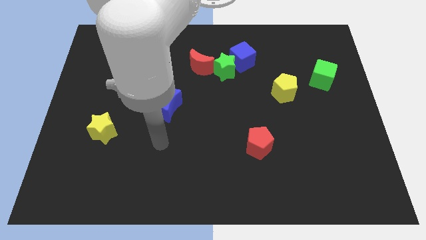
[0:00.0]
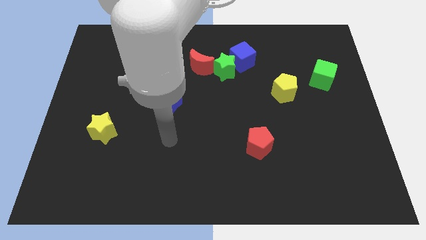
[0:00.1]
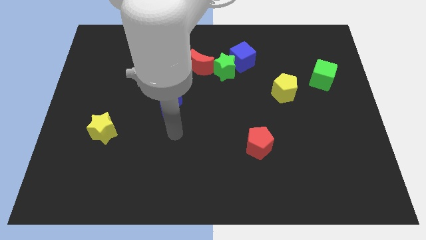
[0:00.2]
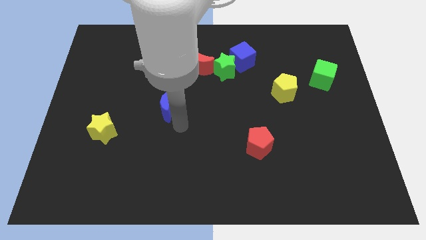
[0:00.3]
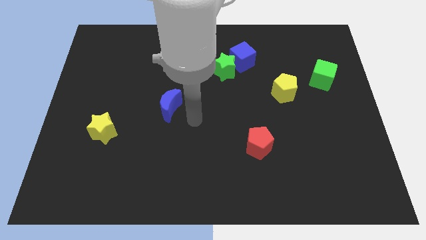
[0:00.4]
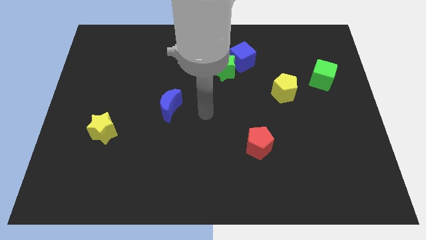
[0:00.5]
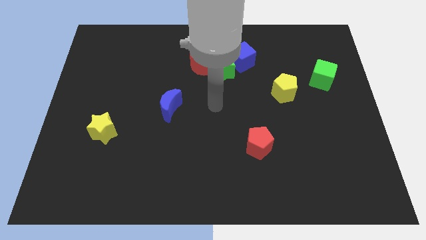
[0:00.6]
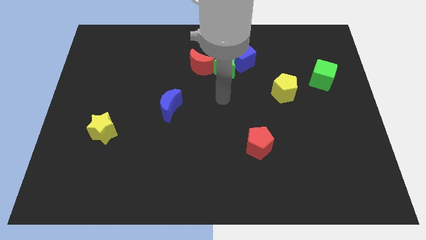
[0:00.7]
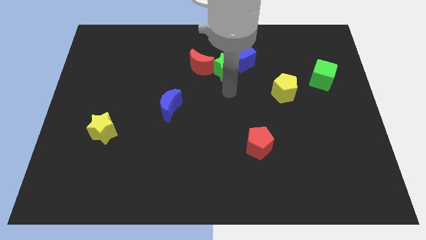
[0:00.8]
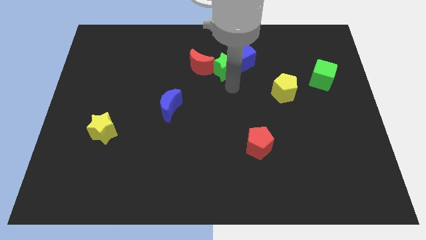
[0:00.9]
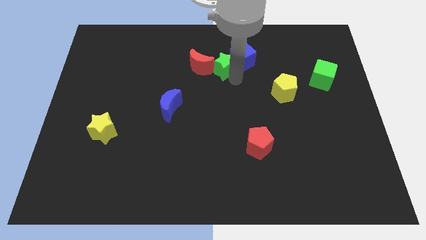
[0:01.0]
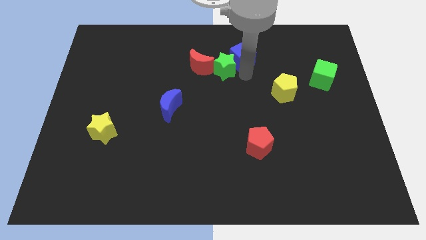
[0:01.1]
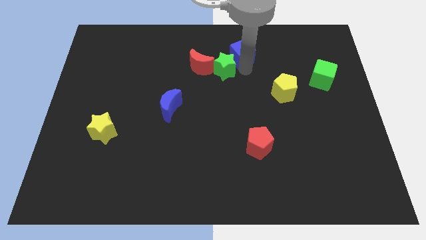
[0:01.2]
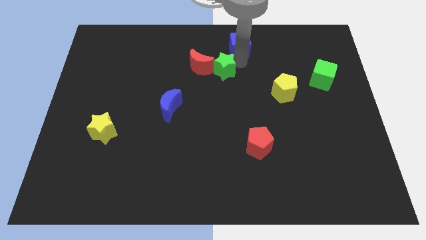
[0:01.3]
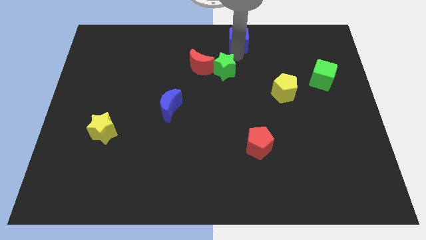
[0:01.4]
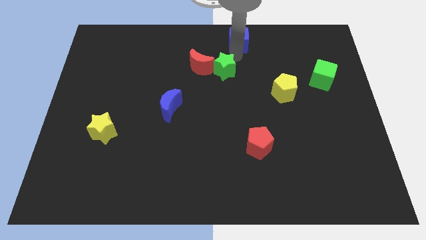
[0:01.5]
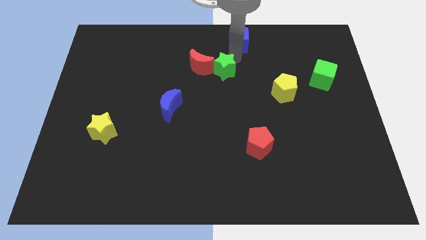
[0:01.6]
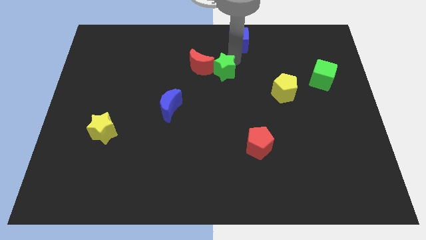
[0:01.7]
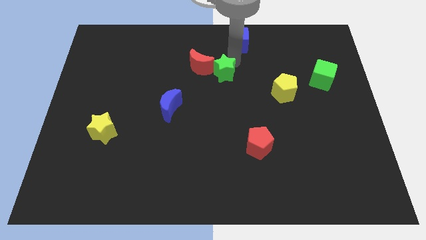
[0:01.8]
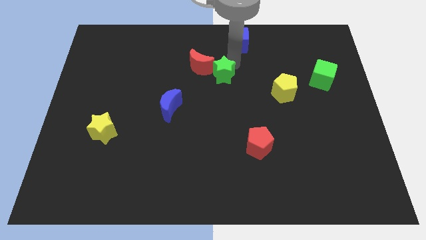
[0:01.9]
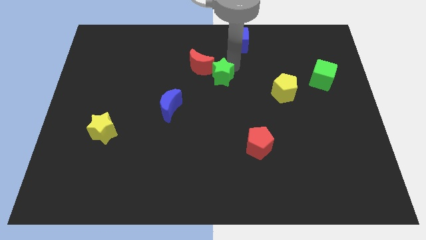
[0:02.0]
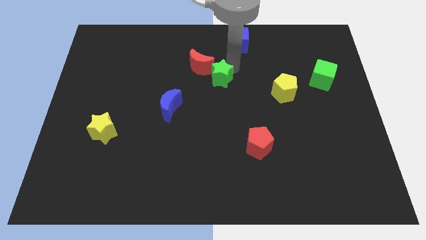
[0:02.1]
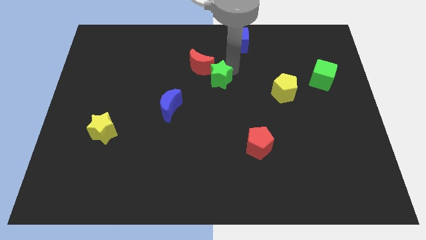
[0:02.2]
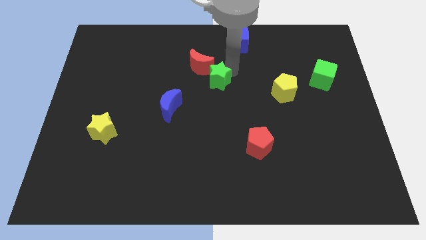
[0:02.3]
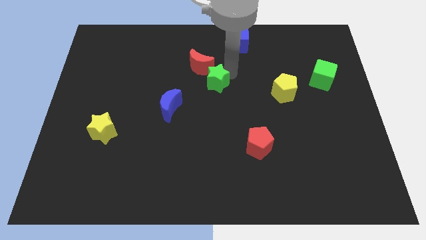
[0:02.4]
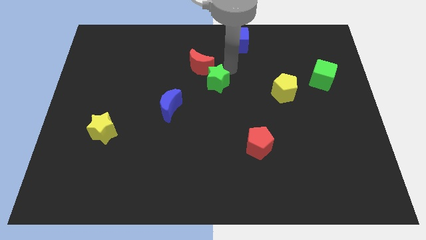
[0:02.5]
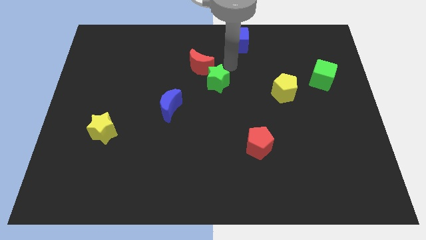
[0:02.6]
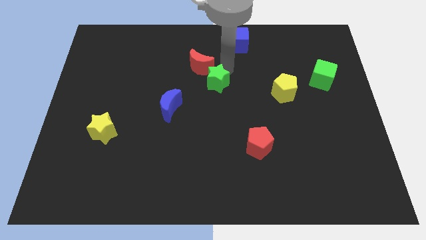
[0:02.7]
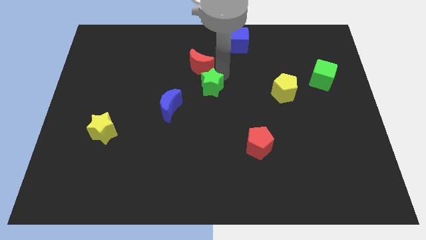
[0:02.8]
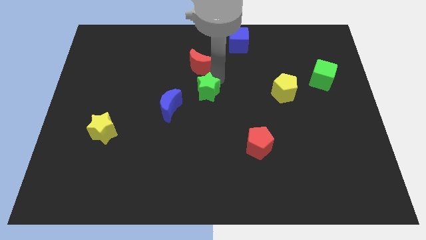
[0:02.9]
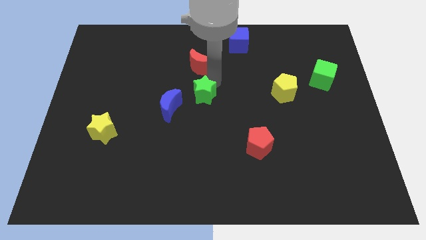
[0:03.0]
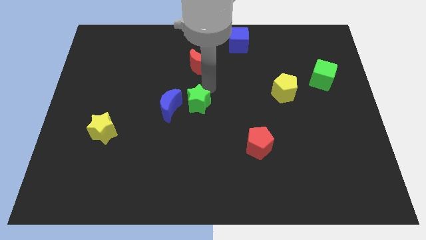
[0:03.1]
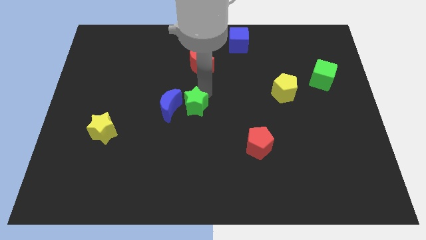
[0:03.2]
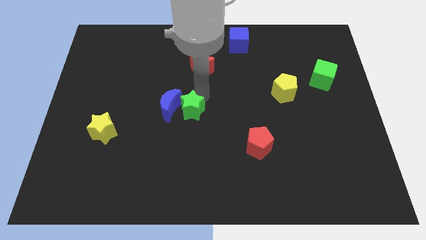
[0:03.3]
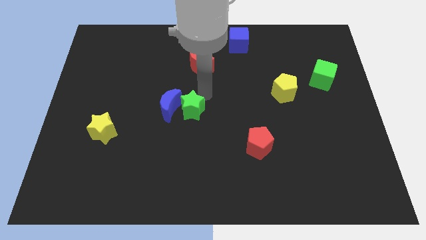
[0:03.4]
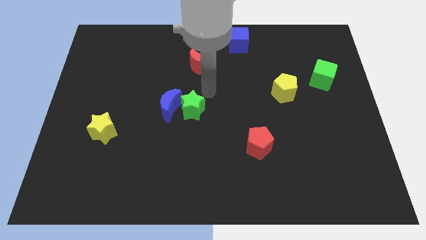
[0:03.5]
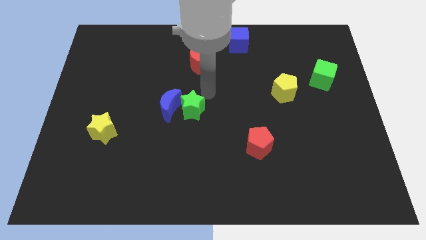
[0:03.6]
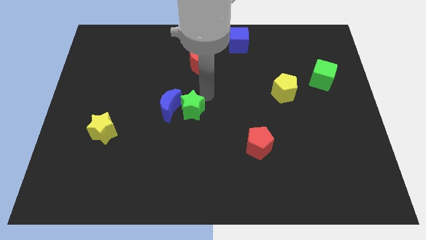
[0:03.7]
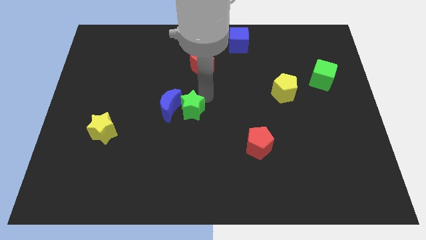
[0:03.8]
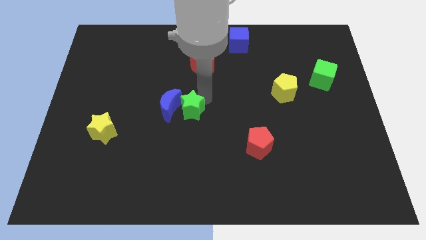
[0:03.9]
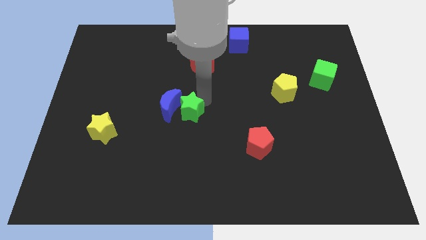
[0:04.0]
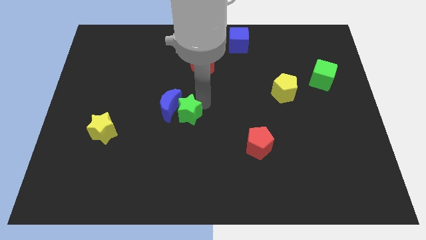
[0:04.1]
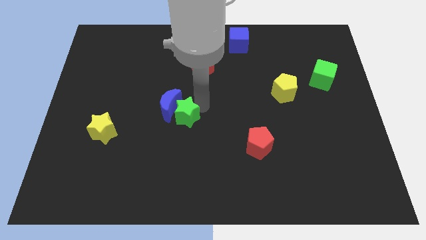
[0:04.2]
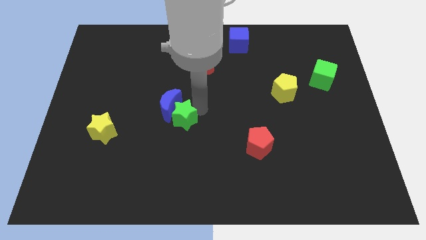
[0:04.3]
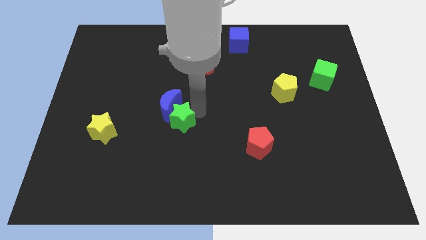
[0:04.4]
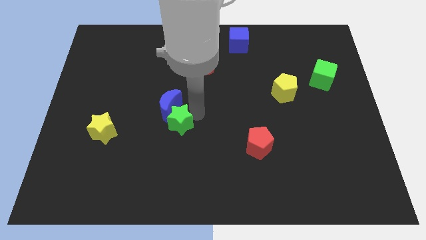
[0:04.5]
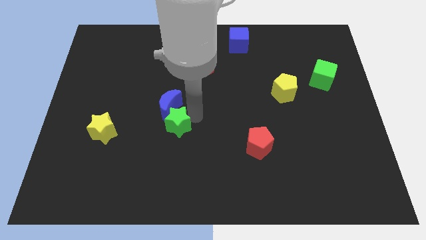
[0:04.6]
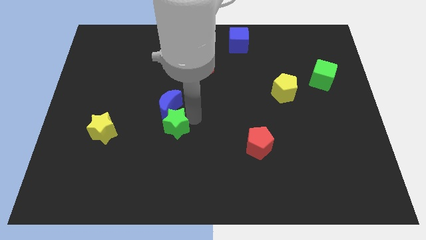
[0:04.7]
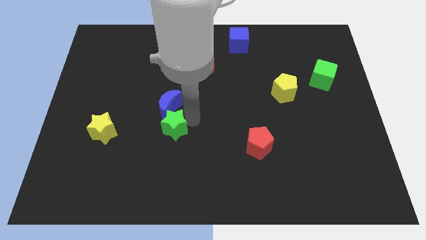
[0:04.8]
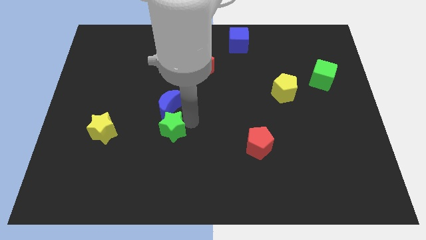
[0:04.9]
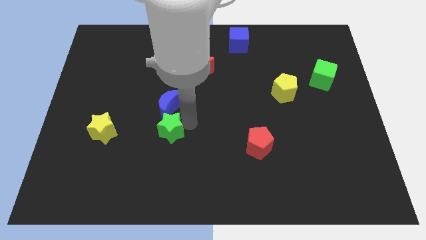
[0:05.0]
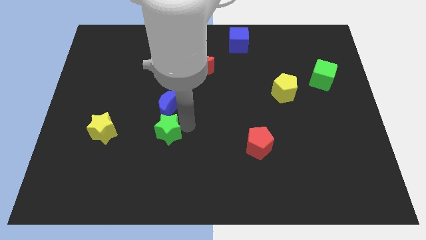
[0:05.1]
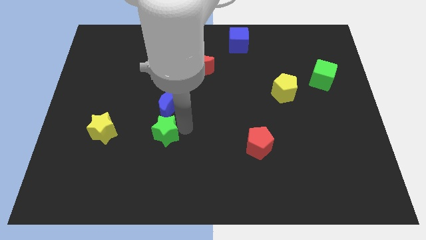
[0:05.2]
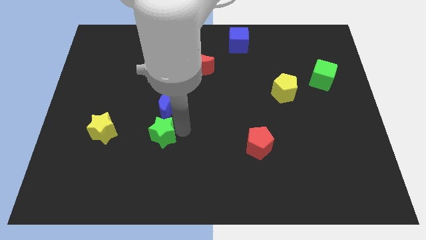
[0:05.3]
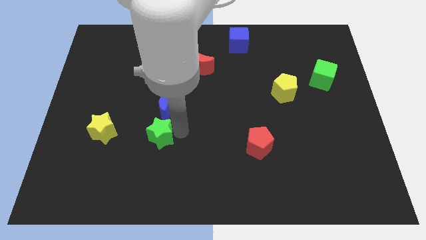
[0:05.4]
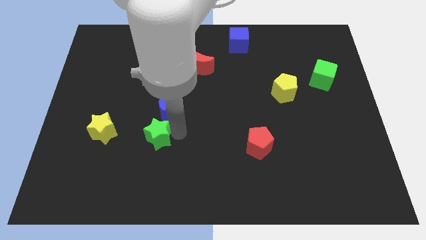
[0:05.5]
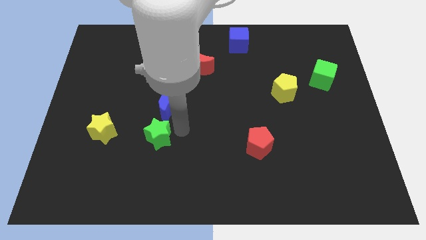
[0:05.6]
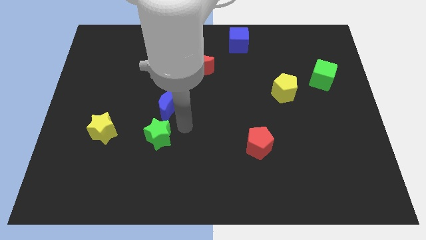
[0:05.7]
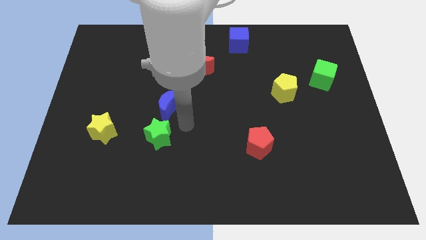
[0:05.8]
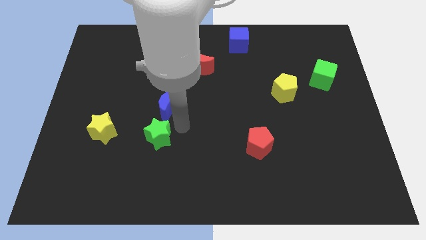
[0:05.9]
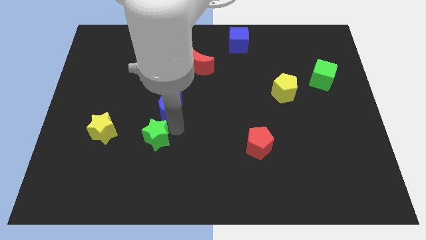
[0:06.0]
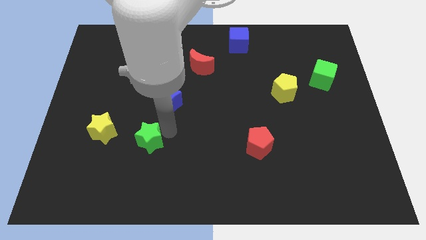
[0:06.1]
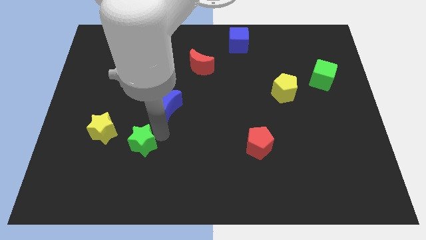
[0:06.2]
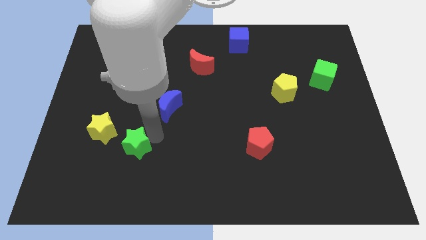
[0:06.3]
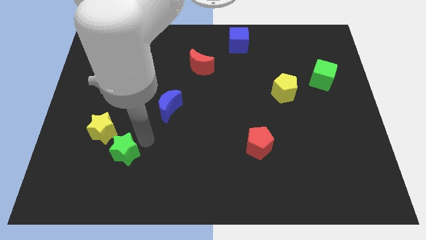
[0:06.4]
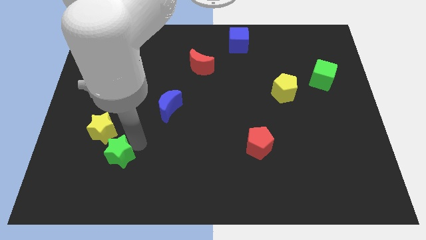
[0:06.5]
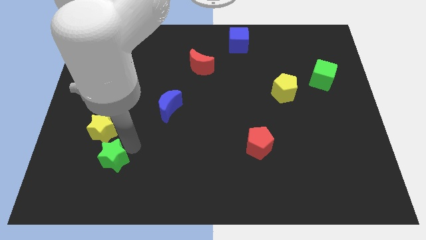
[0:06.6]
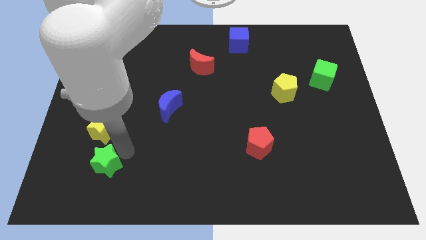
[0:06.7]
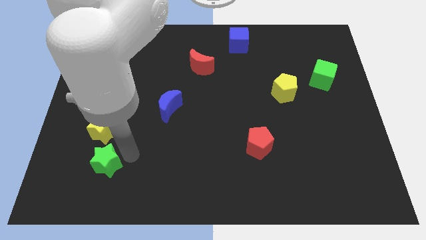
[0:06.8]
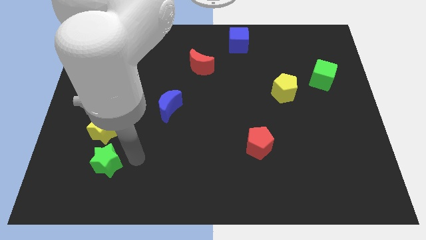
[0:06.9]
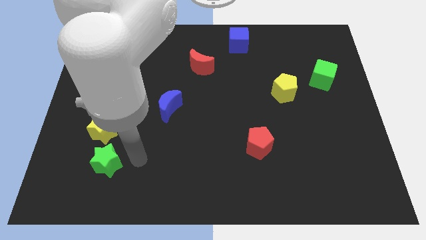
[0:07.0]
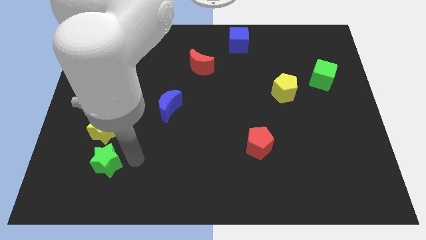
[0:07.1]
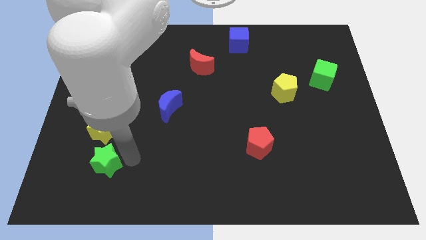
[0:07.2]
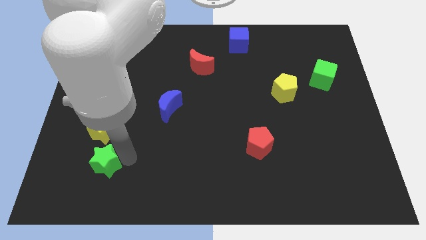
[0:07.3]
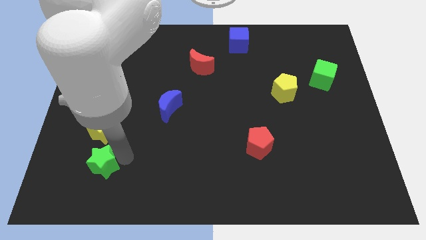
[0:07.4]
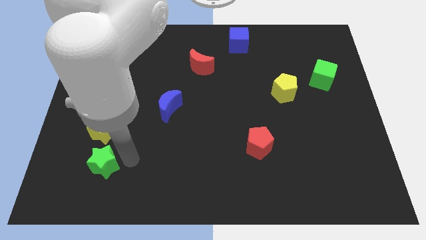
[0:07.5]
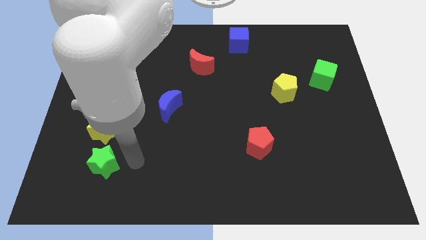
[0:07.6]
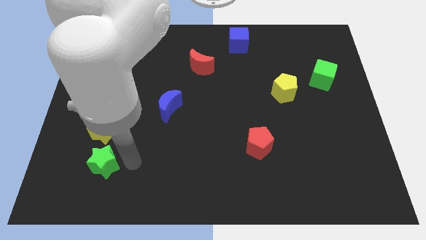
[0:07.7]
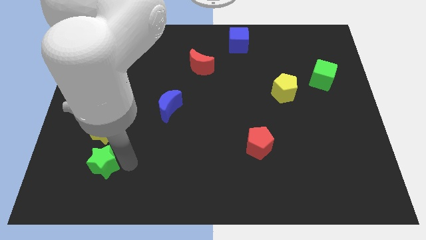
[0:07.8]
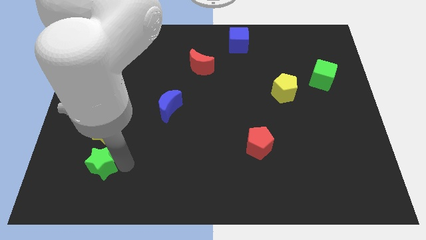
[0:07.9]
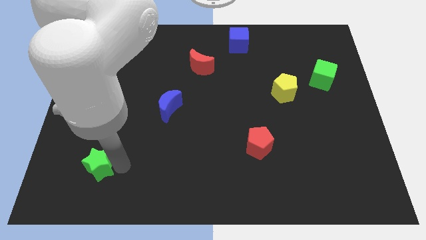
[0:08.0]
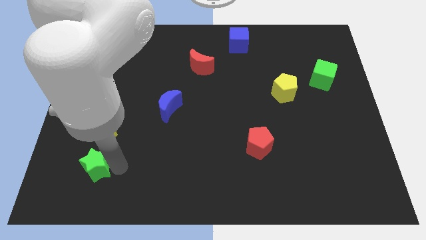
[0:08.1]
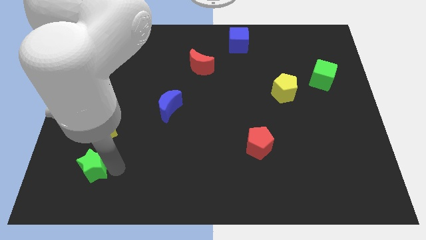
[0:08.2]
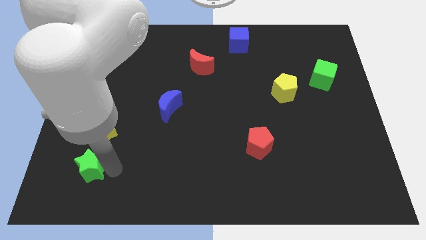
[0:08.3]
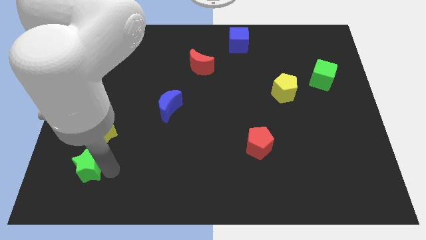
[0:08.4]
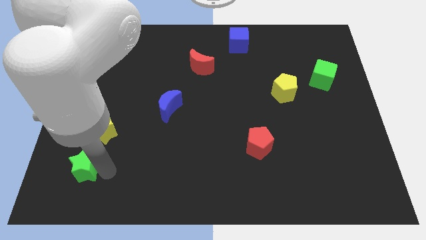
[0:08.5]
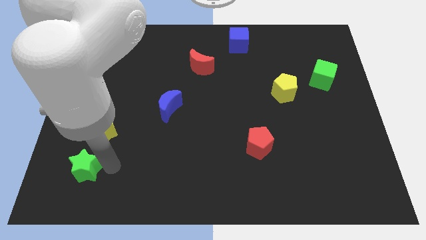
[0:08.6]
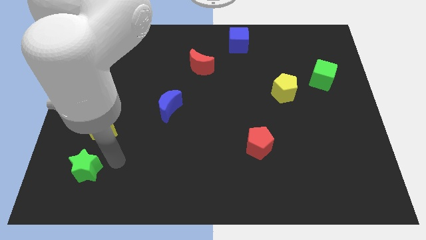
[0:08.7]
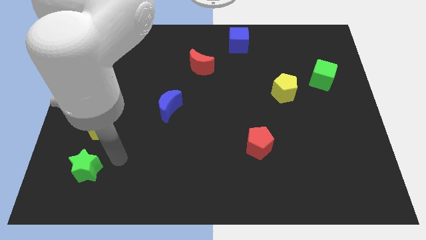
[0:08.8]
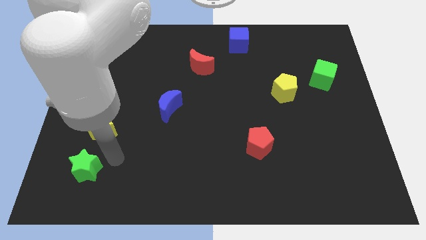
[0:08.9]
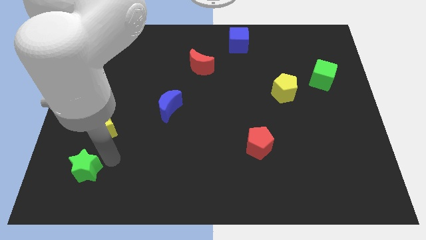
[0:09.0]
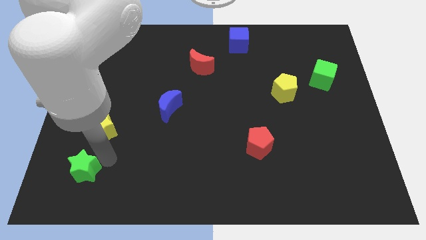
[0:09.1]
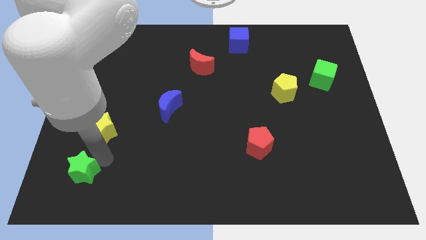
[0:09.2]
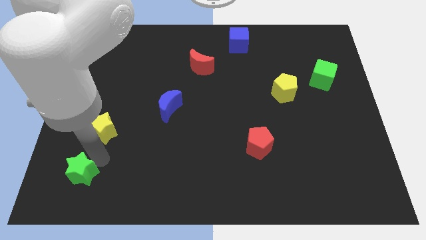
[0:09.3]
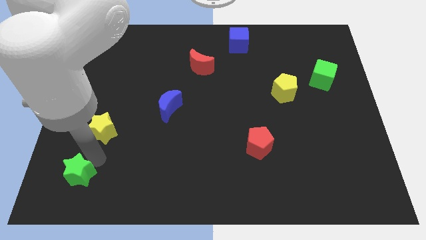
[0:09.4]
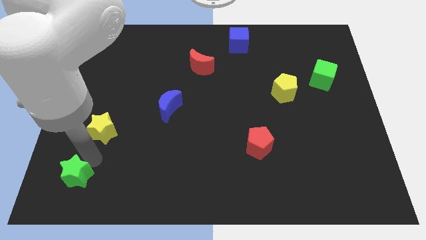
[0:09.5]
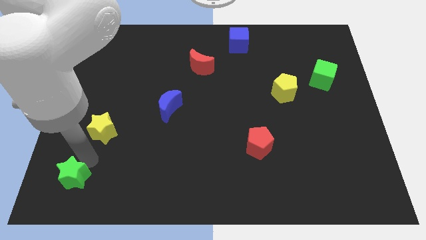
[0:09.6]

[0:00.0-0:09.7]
put the green star to the bottom left of the board
